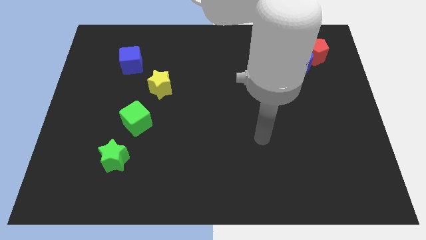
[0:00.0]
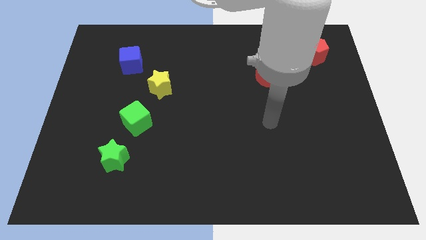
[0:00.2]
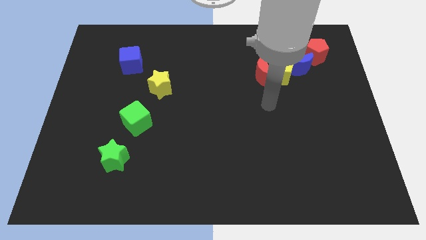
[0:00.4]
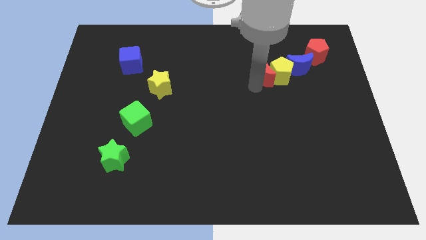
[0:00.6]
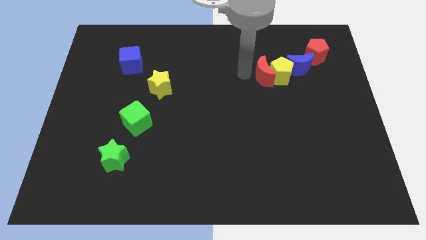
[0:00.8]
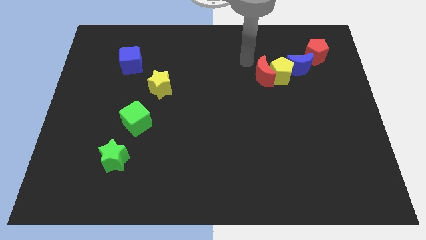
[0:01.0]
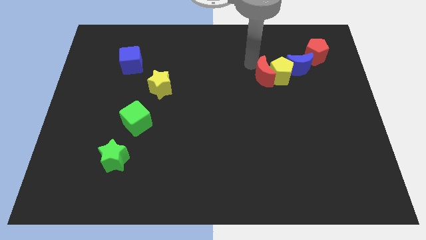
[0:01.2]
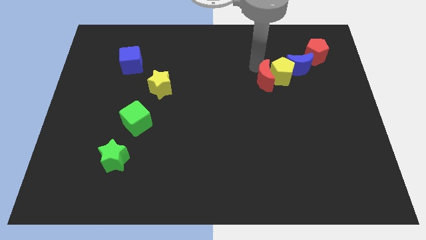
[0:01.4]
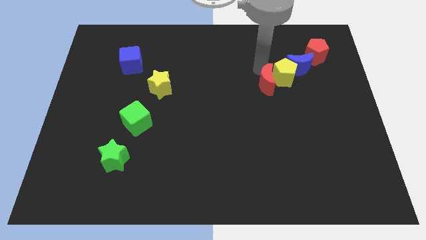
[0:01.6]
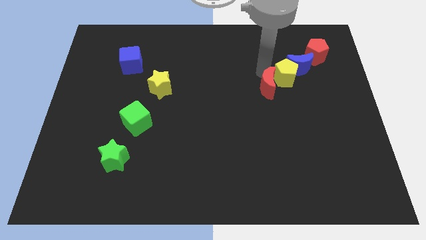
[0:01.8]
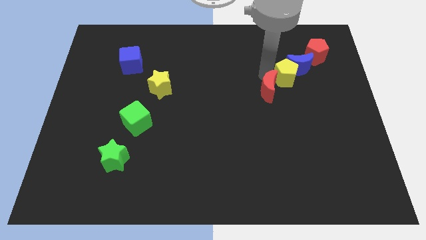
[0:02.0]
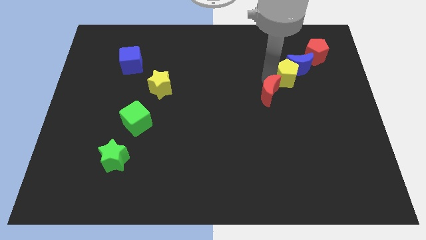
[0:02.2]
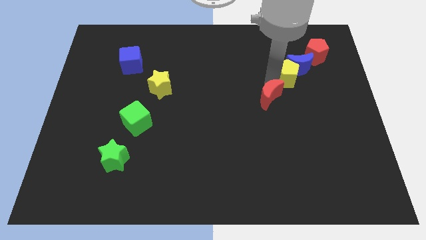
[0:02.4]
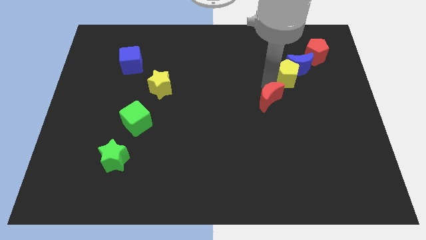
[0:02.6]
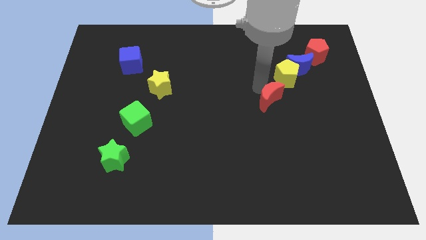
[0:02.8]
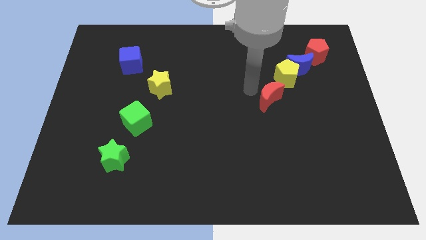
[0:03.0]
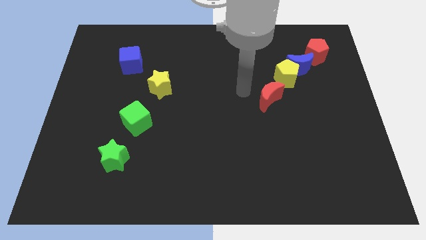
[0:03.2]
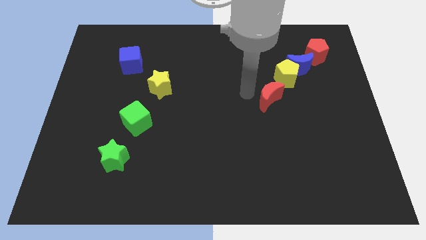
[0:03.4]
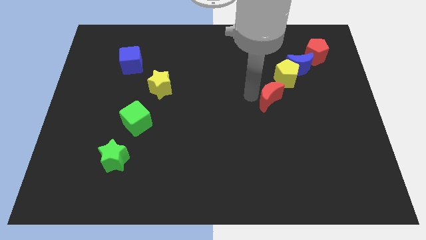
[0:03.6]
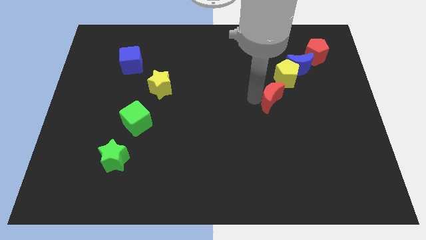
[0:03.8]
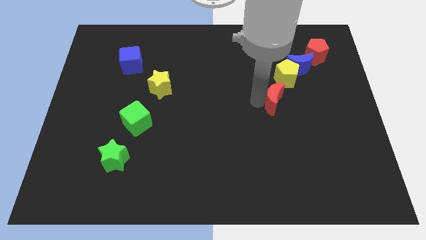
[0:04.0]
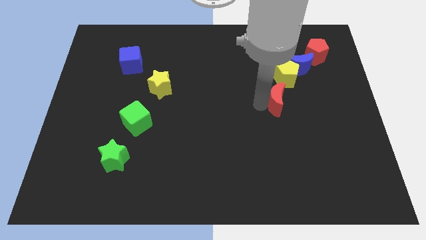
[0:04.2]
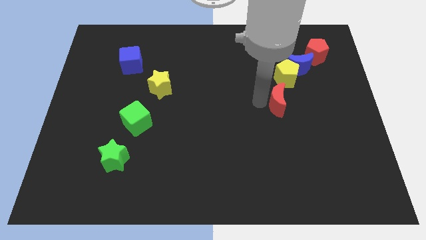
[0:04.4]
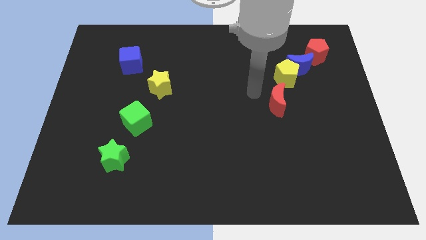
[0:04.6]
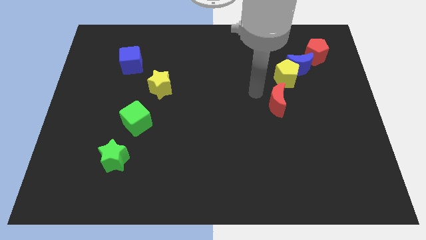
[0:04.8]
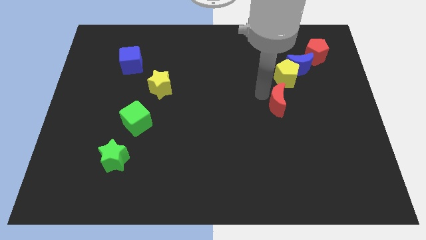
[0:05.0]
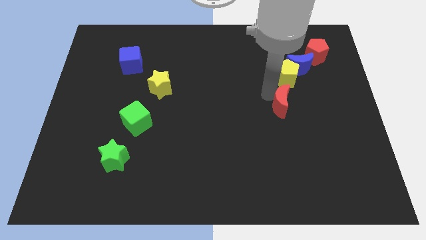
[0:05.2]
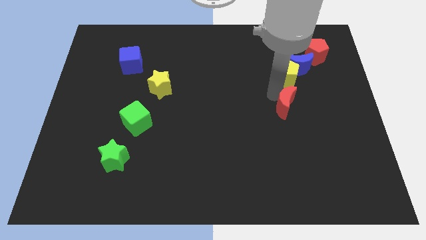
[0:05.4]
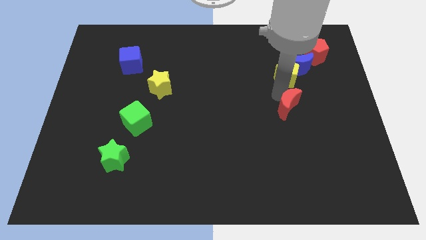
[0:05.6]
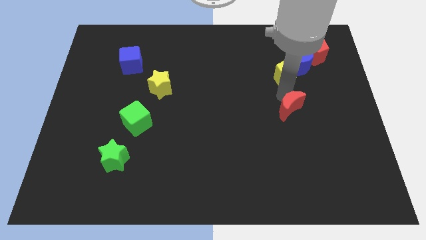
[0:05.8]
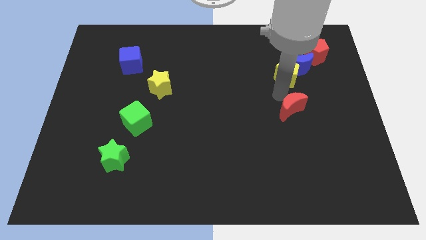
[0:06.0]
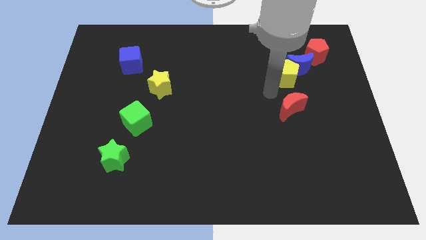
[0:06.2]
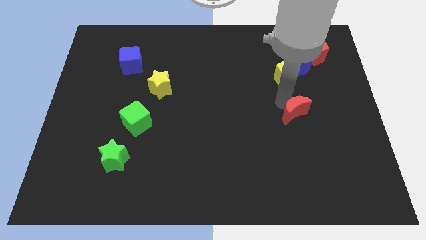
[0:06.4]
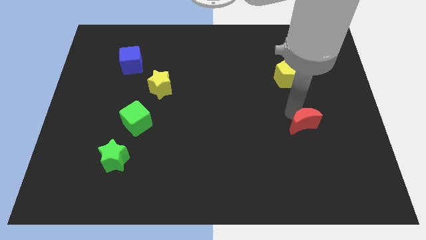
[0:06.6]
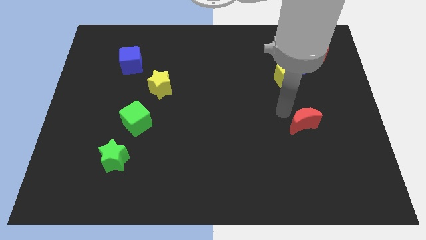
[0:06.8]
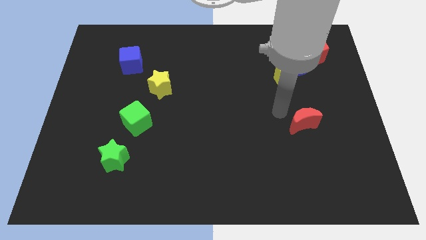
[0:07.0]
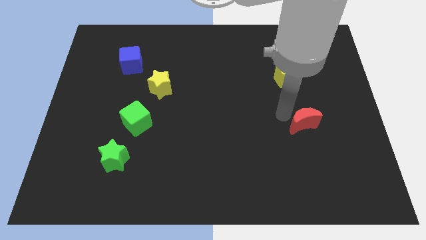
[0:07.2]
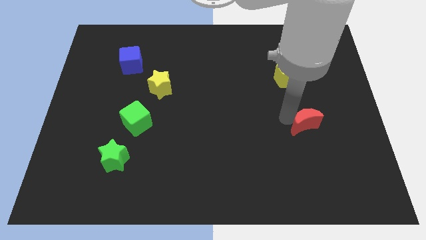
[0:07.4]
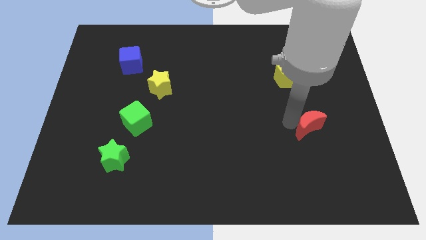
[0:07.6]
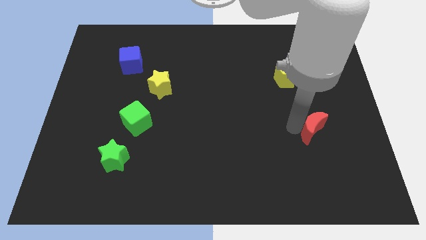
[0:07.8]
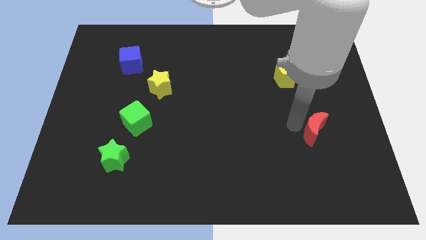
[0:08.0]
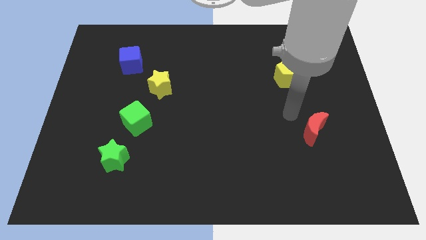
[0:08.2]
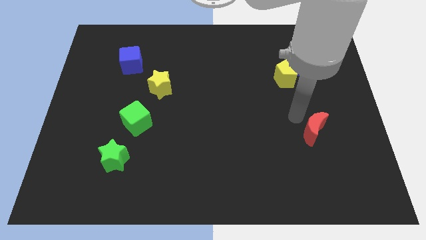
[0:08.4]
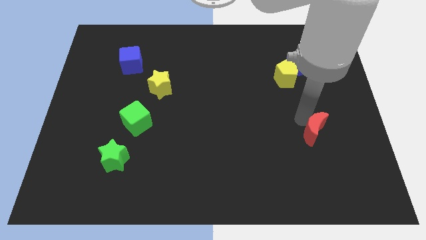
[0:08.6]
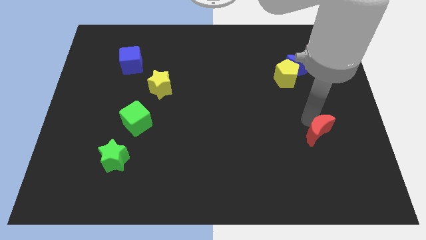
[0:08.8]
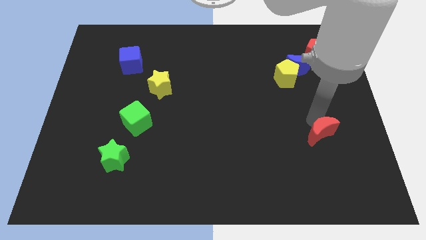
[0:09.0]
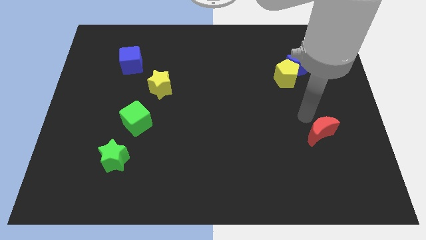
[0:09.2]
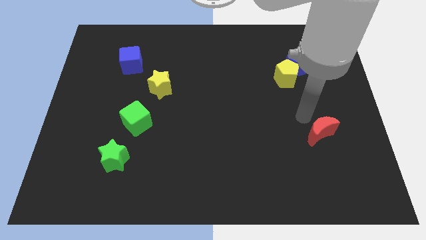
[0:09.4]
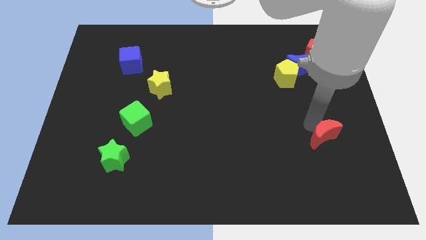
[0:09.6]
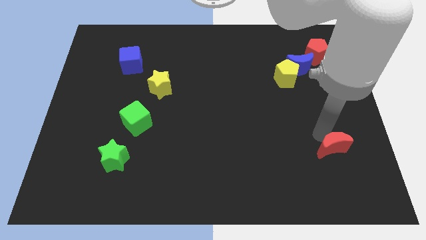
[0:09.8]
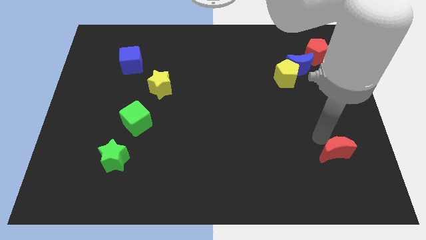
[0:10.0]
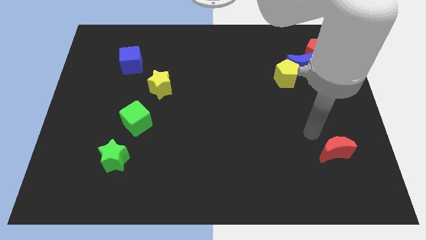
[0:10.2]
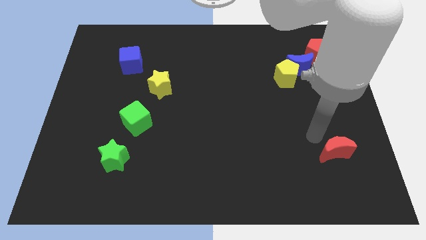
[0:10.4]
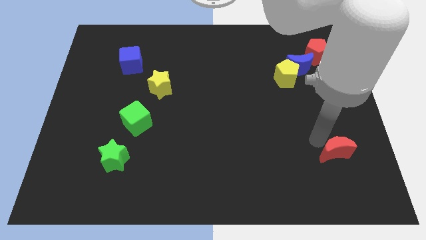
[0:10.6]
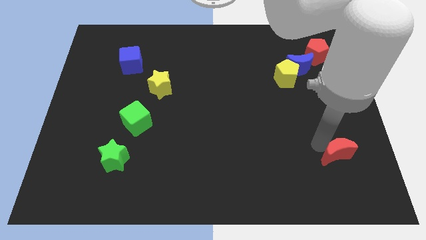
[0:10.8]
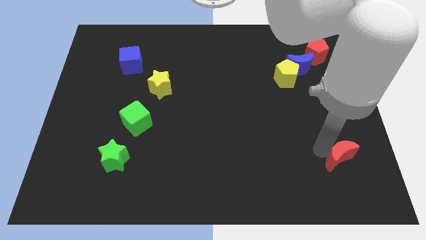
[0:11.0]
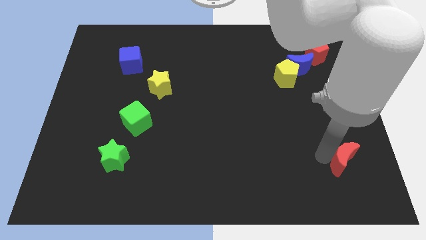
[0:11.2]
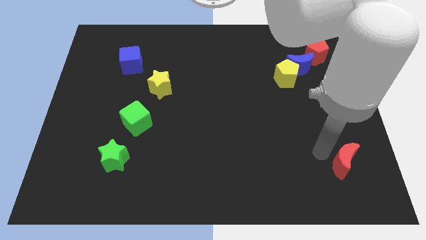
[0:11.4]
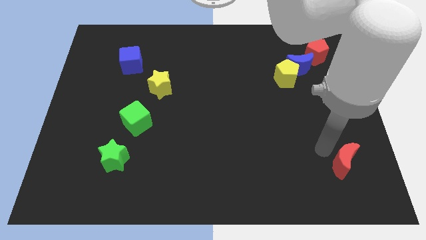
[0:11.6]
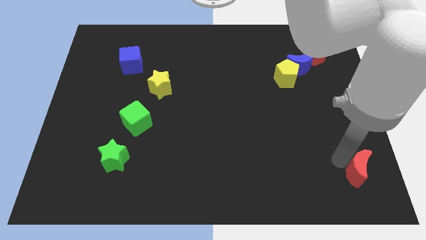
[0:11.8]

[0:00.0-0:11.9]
move the red moon to the bottom right of the board
